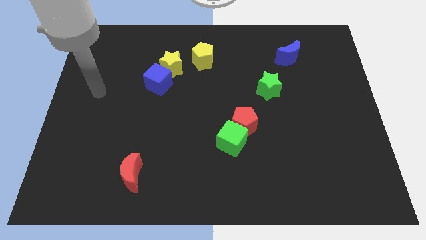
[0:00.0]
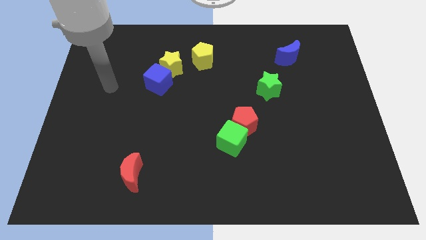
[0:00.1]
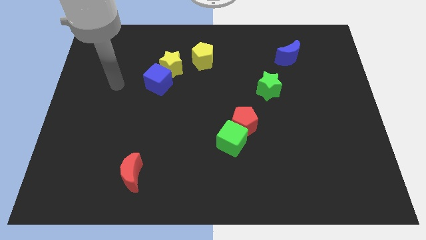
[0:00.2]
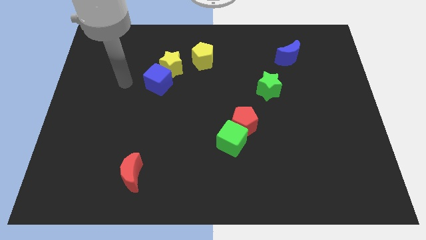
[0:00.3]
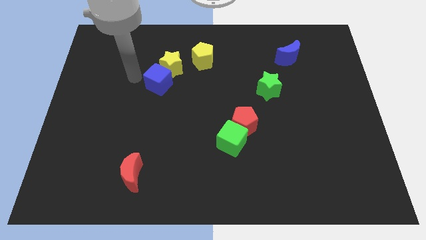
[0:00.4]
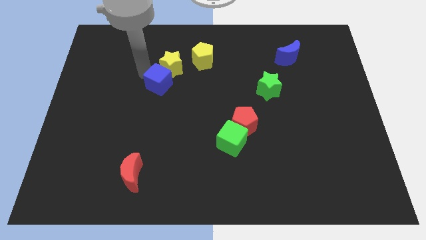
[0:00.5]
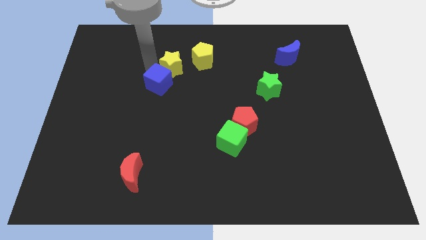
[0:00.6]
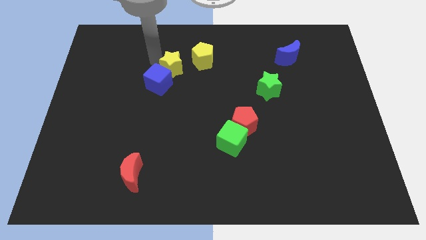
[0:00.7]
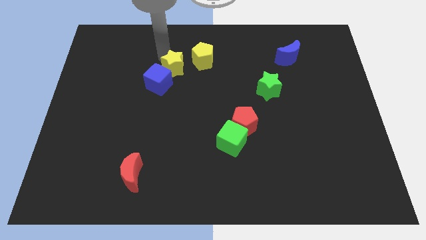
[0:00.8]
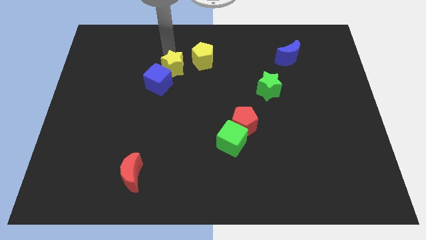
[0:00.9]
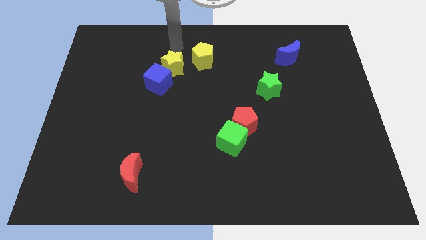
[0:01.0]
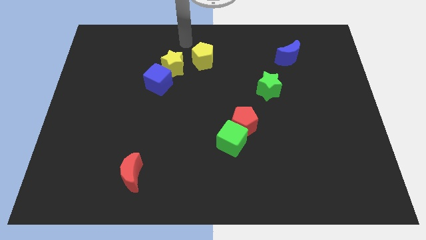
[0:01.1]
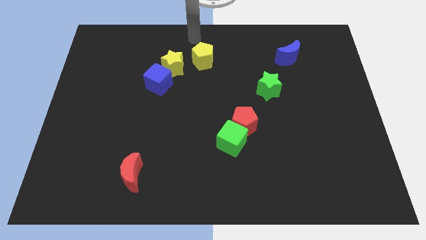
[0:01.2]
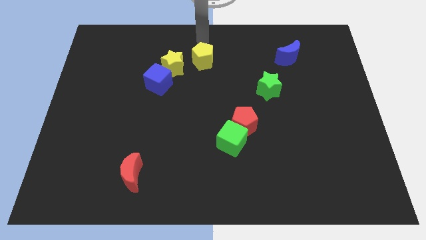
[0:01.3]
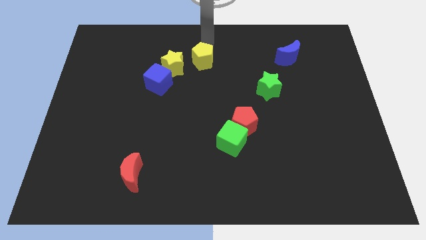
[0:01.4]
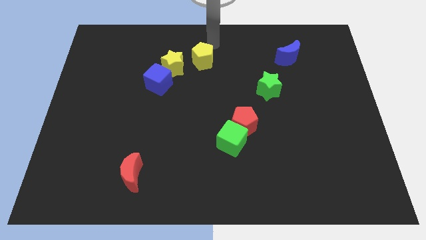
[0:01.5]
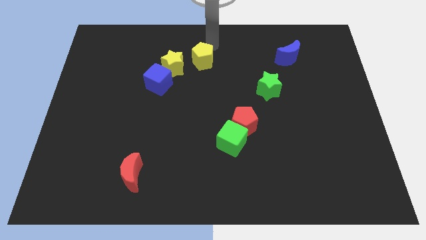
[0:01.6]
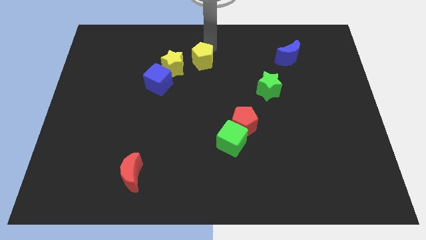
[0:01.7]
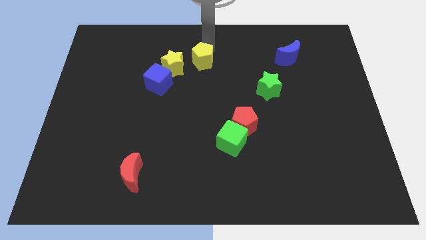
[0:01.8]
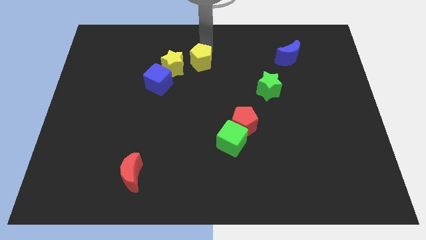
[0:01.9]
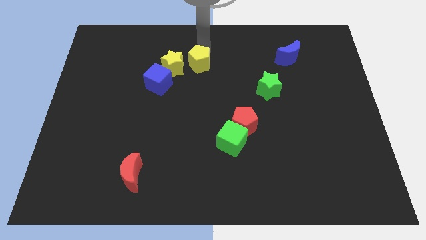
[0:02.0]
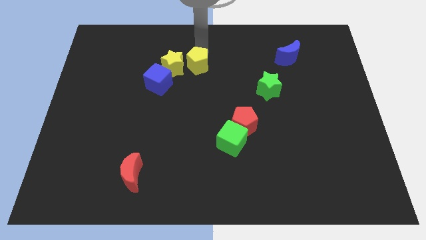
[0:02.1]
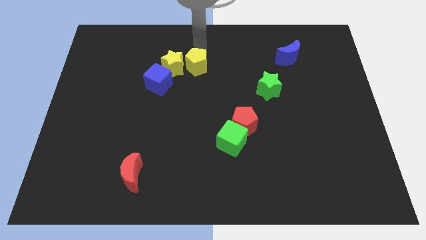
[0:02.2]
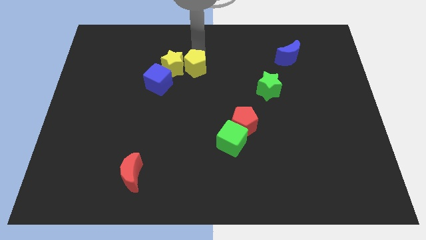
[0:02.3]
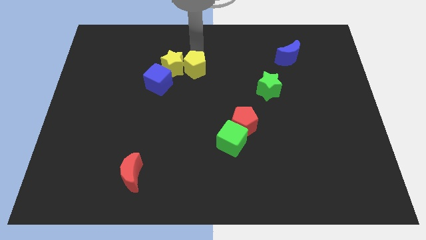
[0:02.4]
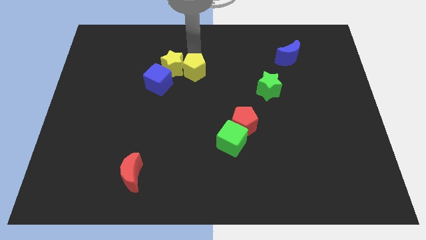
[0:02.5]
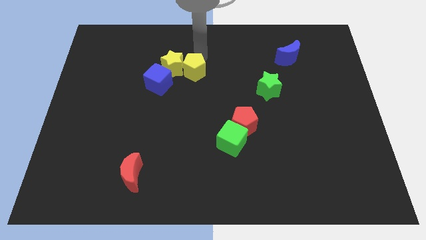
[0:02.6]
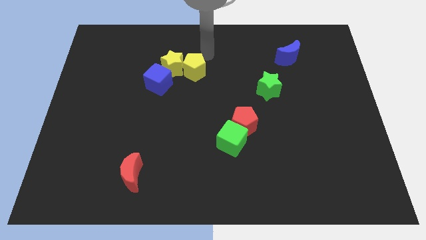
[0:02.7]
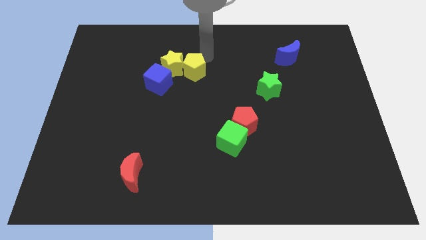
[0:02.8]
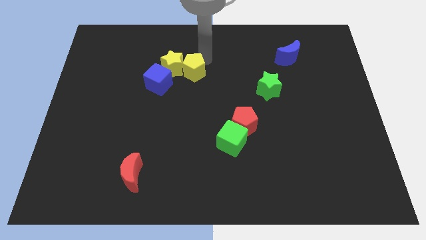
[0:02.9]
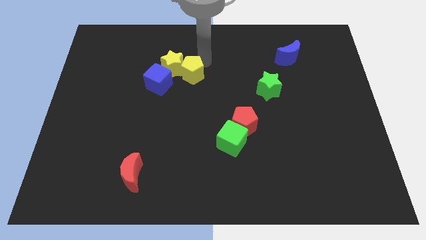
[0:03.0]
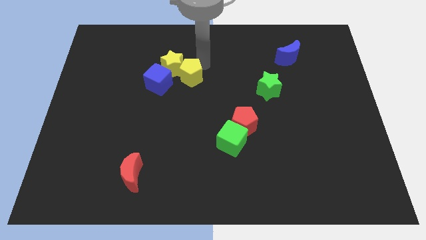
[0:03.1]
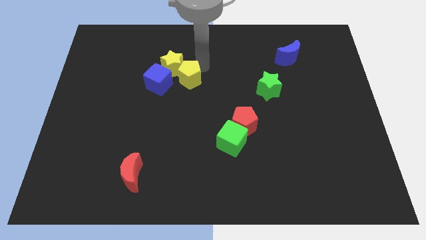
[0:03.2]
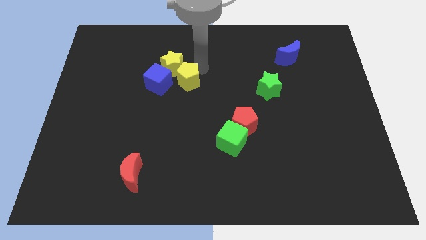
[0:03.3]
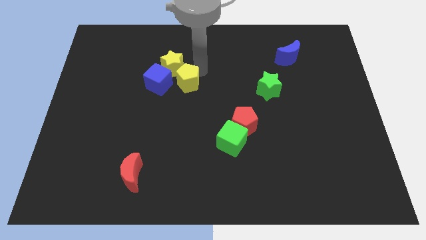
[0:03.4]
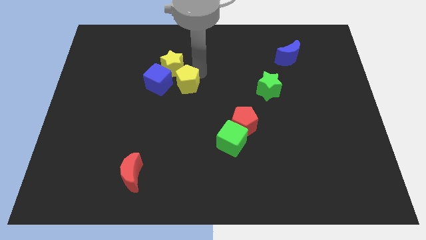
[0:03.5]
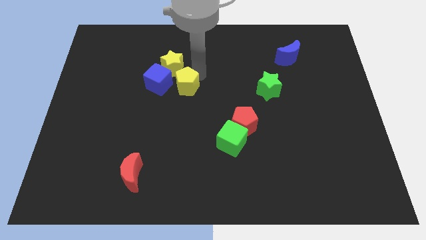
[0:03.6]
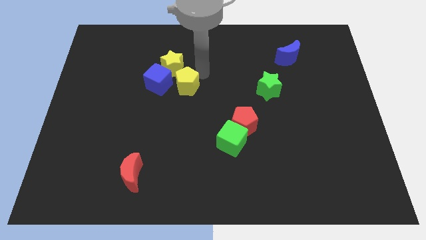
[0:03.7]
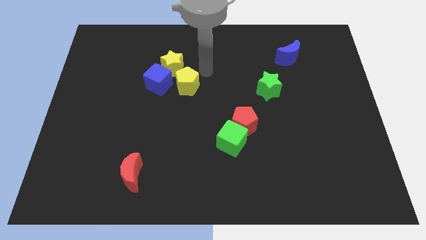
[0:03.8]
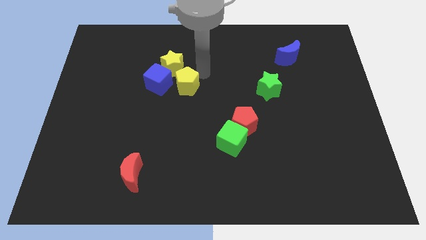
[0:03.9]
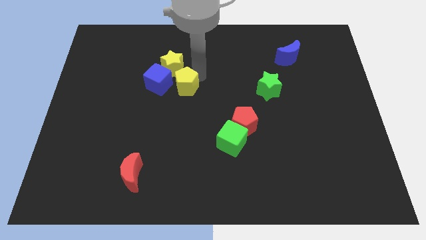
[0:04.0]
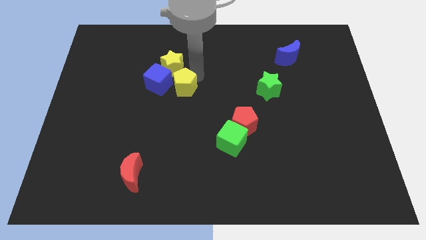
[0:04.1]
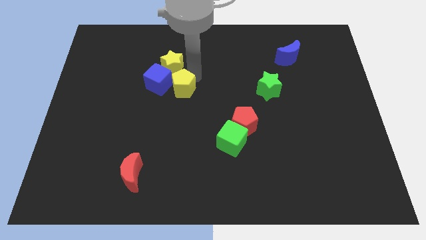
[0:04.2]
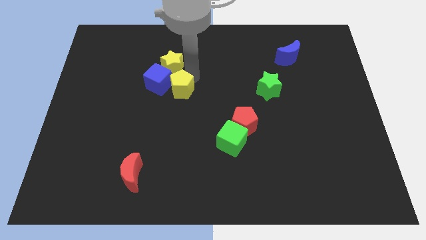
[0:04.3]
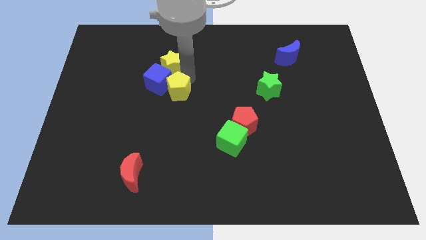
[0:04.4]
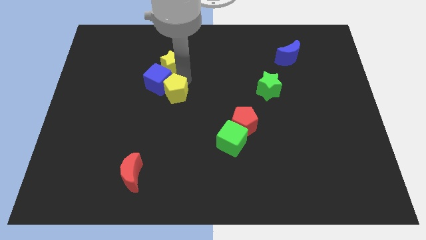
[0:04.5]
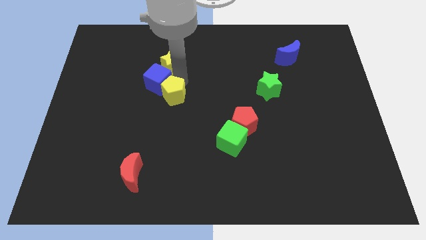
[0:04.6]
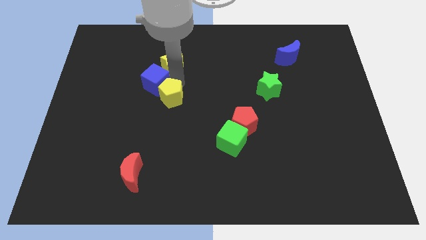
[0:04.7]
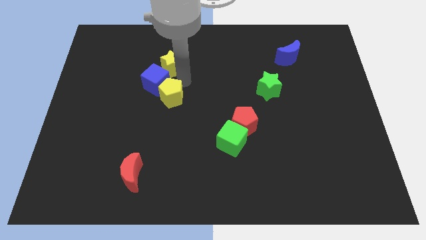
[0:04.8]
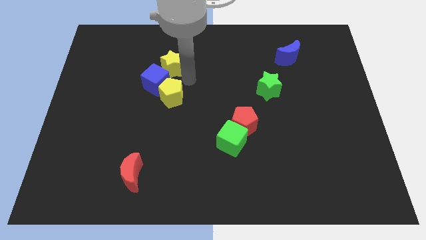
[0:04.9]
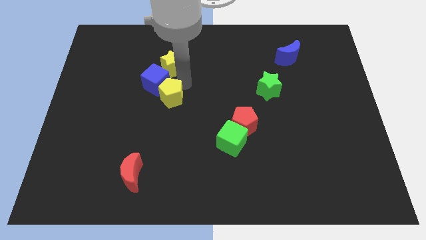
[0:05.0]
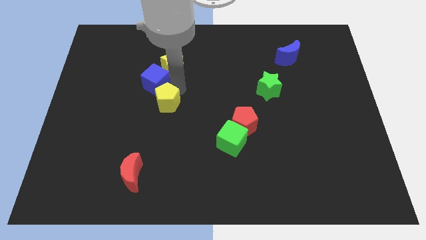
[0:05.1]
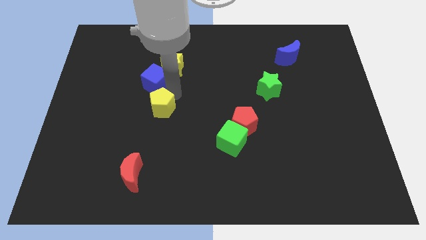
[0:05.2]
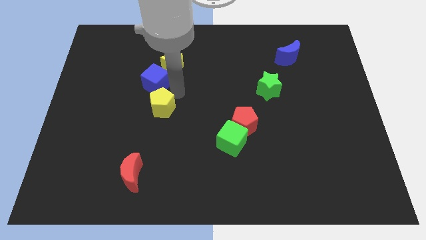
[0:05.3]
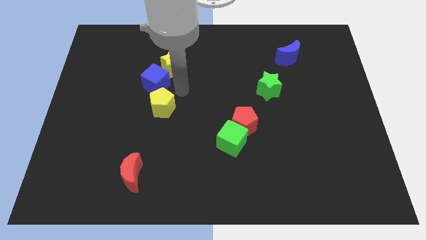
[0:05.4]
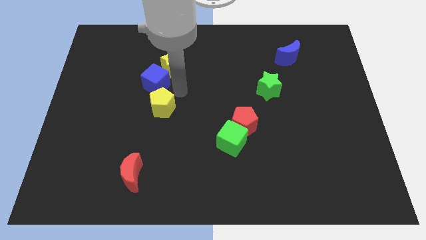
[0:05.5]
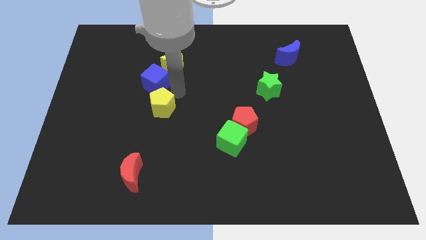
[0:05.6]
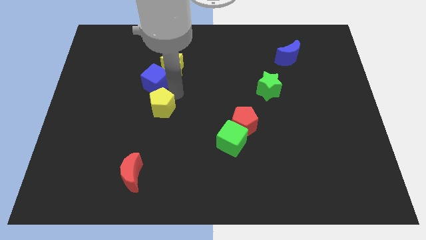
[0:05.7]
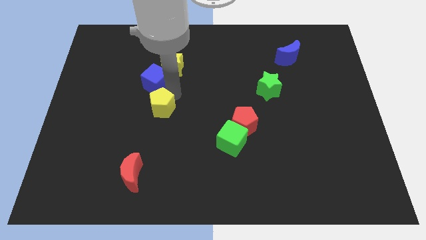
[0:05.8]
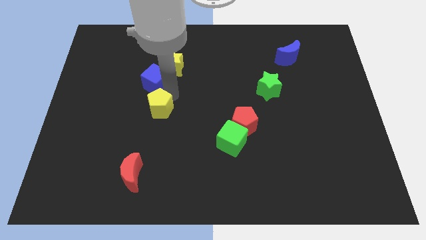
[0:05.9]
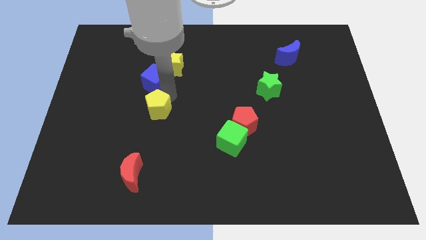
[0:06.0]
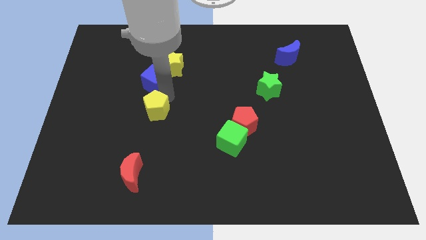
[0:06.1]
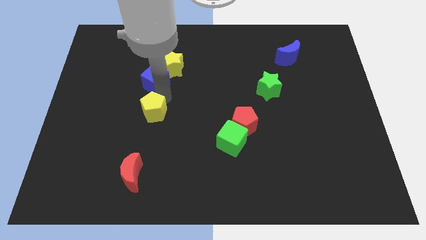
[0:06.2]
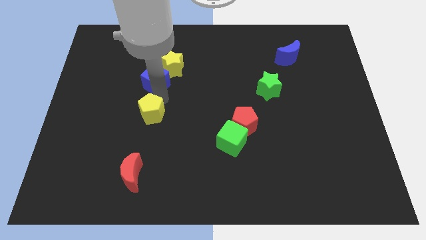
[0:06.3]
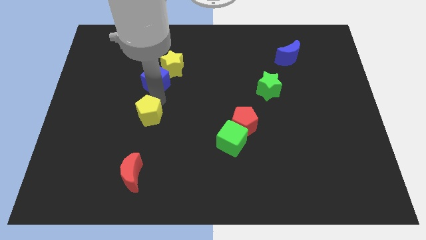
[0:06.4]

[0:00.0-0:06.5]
push the yellow pentagon to the top of the red moon
